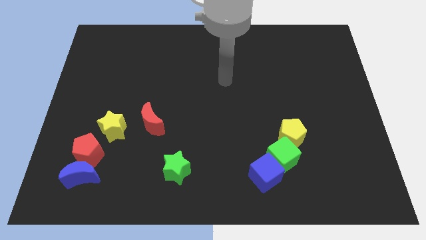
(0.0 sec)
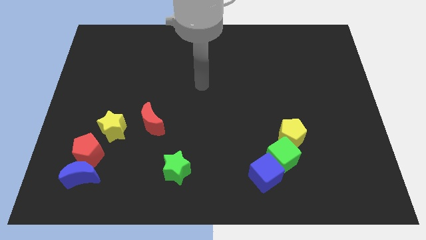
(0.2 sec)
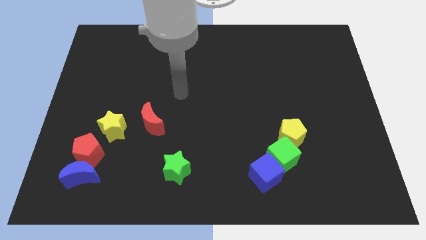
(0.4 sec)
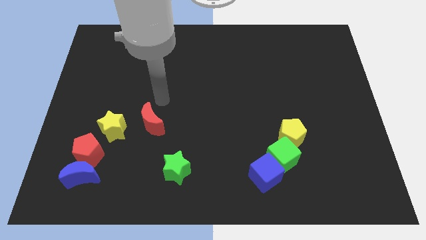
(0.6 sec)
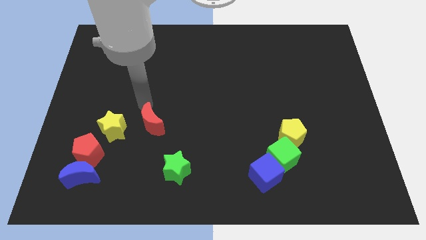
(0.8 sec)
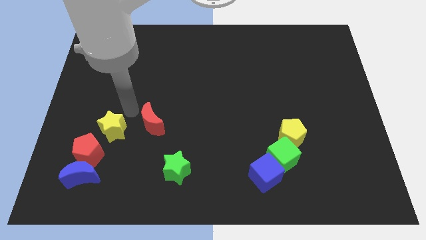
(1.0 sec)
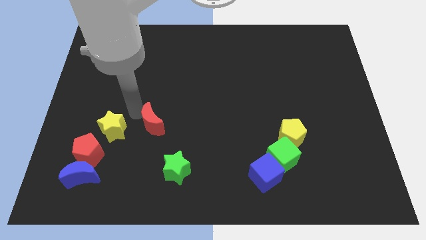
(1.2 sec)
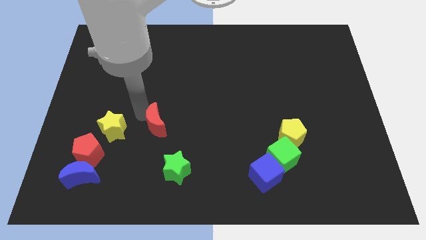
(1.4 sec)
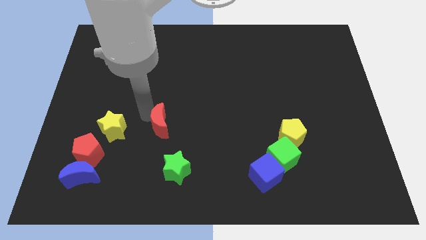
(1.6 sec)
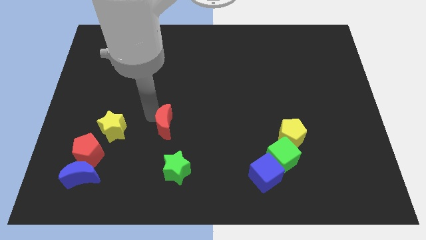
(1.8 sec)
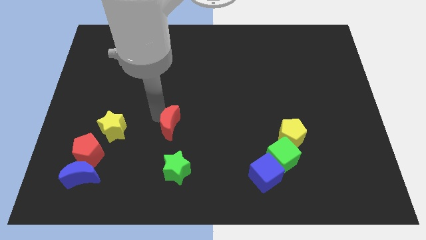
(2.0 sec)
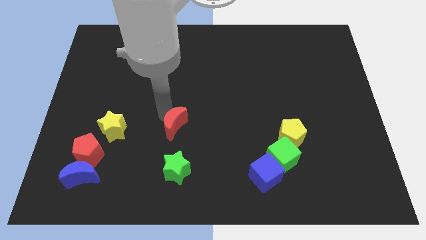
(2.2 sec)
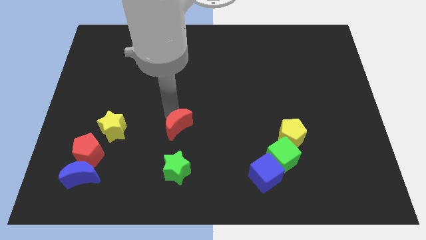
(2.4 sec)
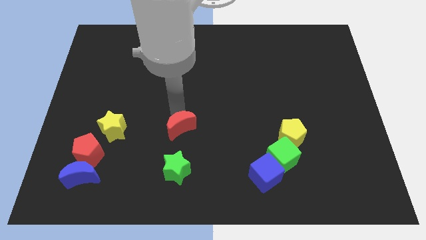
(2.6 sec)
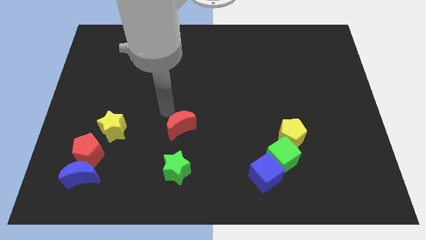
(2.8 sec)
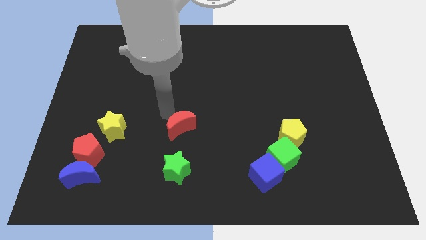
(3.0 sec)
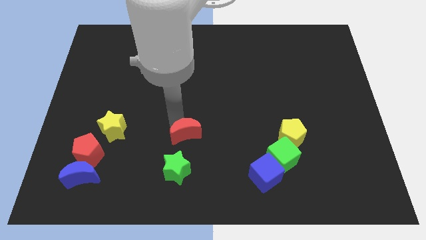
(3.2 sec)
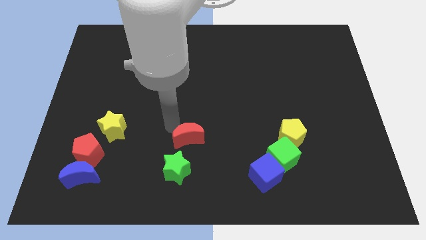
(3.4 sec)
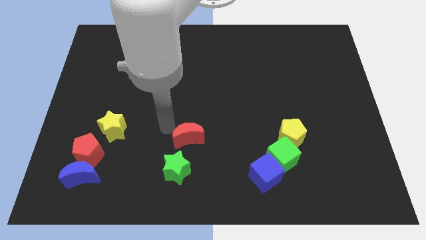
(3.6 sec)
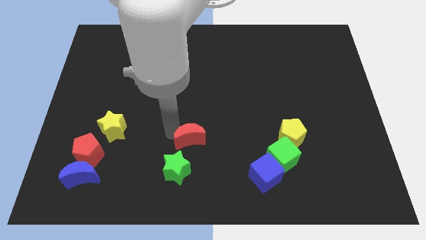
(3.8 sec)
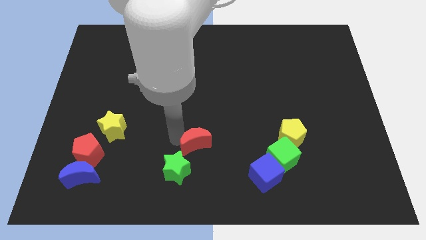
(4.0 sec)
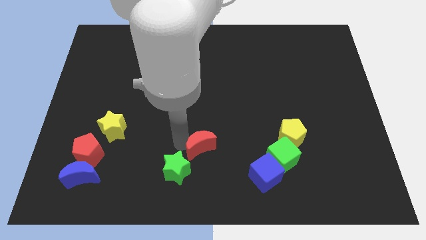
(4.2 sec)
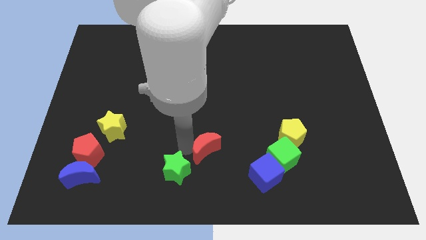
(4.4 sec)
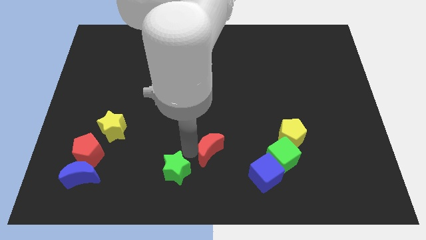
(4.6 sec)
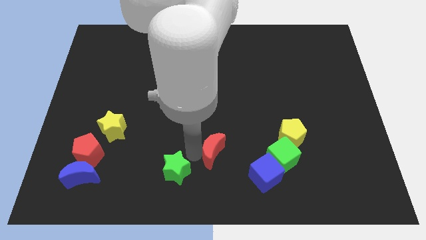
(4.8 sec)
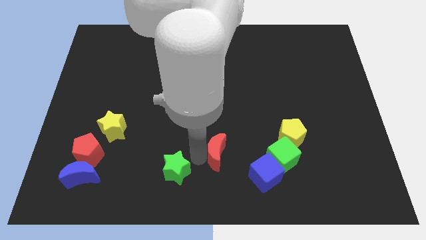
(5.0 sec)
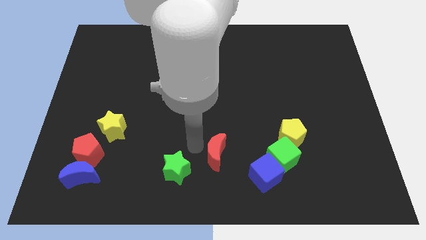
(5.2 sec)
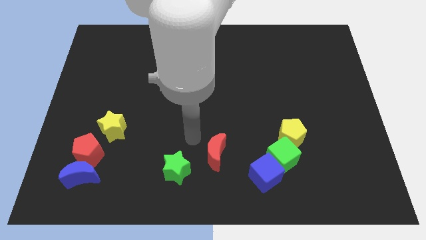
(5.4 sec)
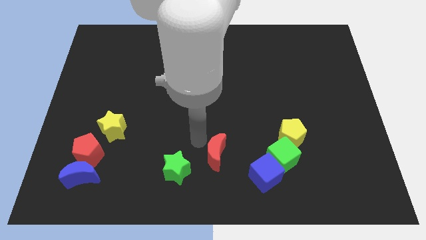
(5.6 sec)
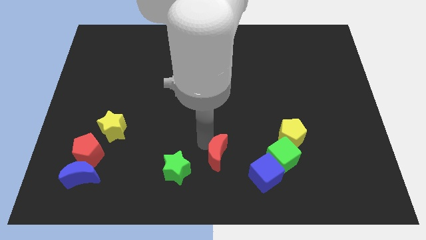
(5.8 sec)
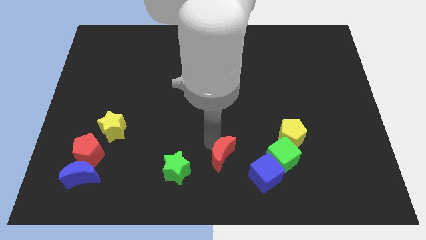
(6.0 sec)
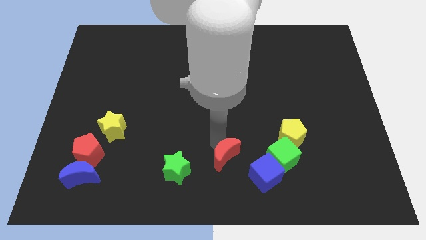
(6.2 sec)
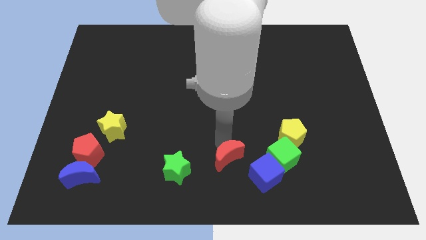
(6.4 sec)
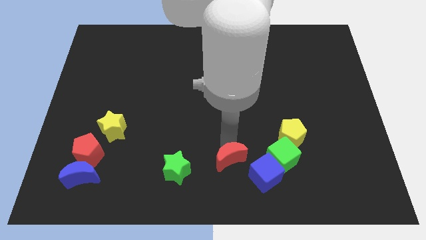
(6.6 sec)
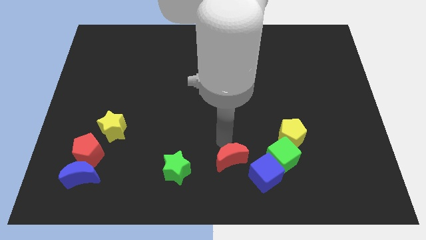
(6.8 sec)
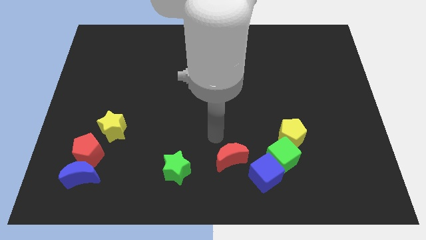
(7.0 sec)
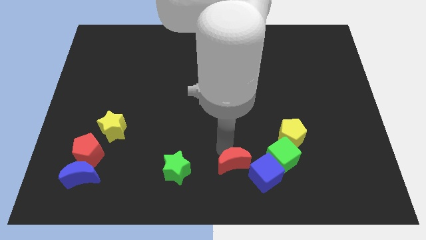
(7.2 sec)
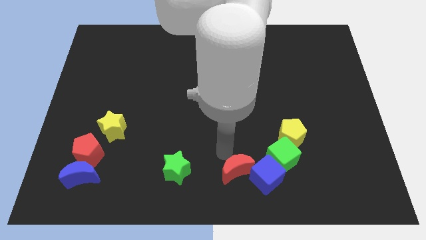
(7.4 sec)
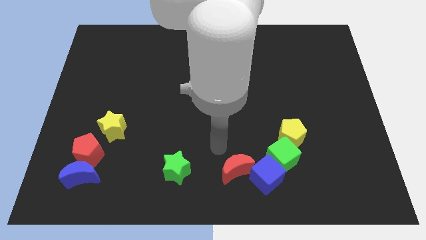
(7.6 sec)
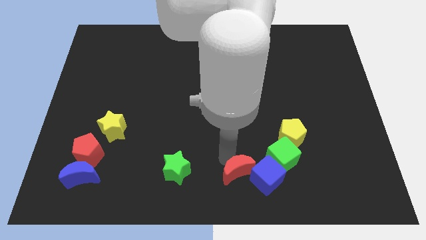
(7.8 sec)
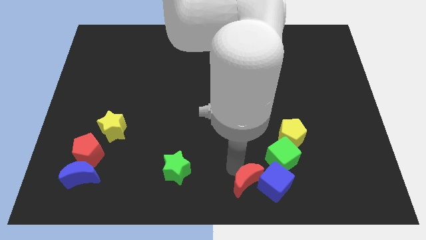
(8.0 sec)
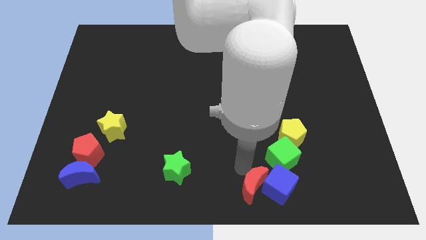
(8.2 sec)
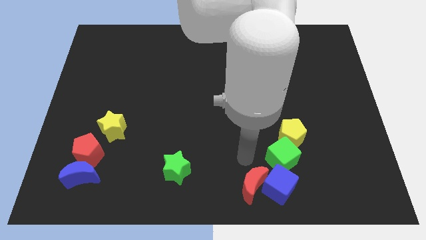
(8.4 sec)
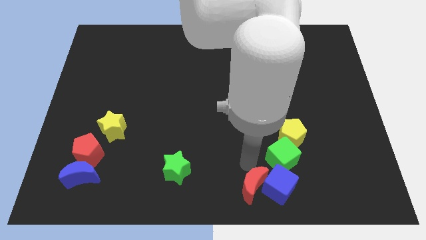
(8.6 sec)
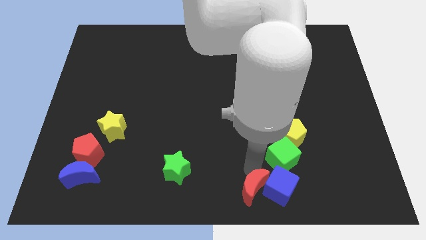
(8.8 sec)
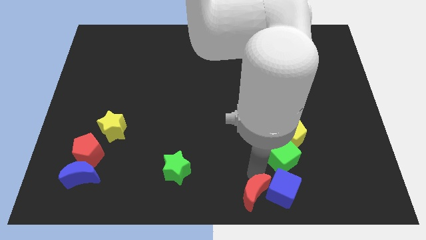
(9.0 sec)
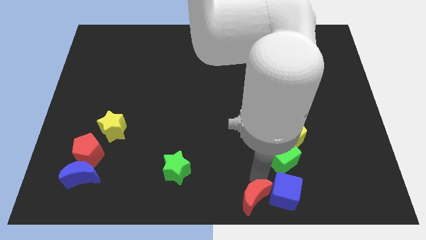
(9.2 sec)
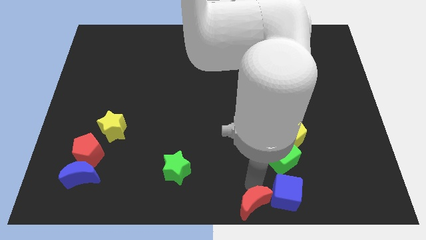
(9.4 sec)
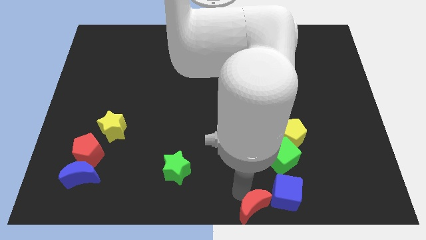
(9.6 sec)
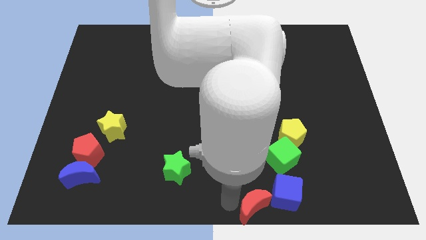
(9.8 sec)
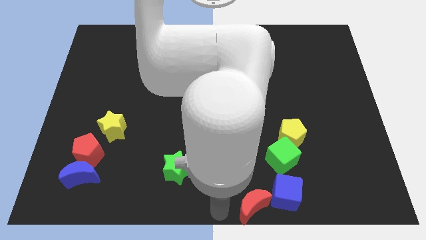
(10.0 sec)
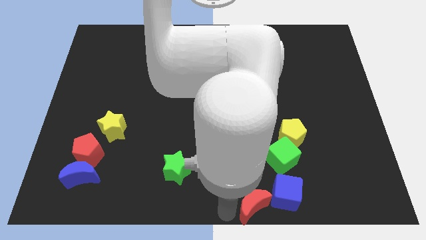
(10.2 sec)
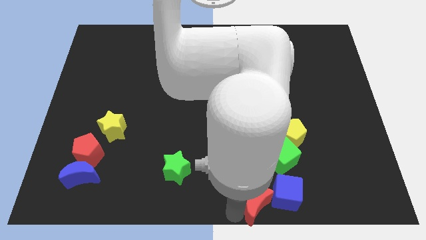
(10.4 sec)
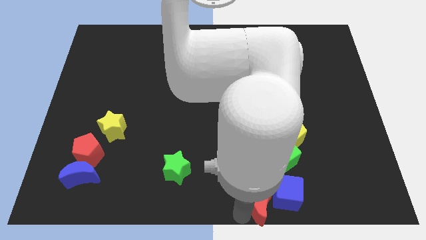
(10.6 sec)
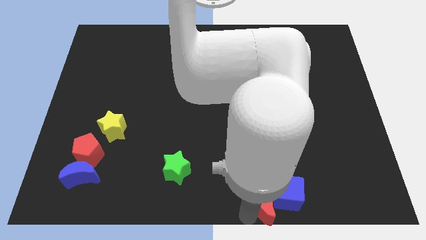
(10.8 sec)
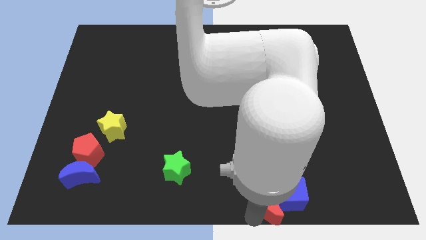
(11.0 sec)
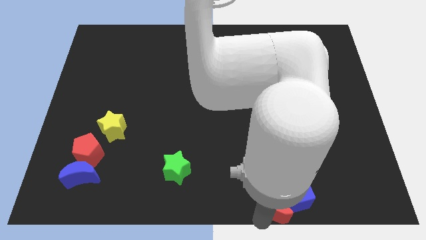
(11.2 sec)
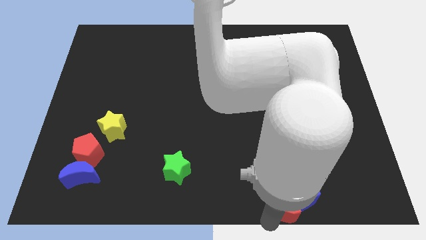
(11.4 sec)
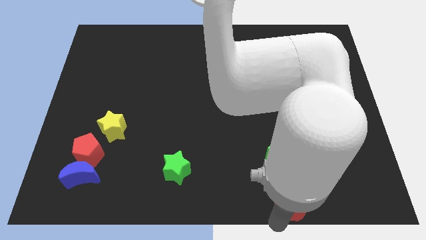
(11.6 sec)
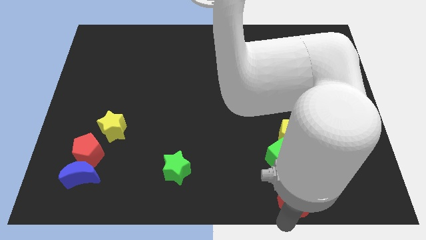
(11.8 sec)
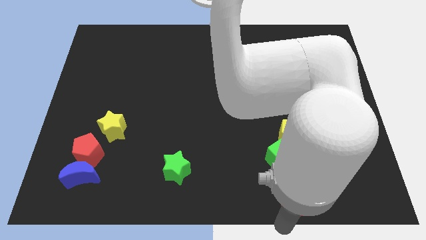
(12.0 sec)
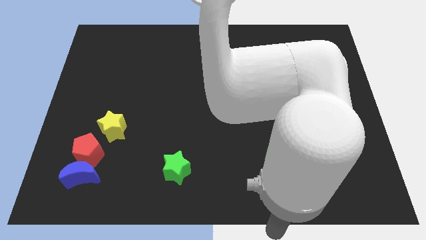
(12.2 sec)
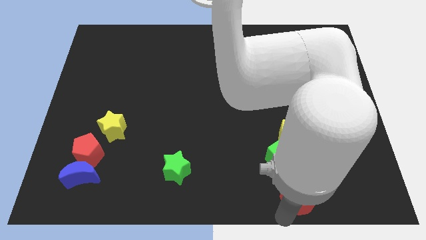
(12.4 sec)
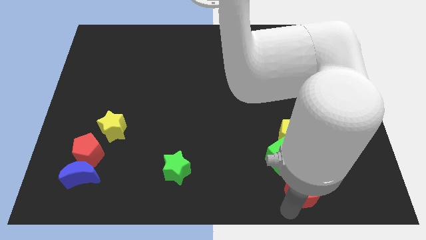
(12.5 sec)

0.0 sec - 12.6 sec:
put the red moon to the bottom right side of the green cube

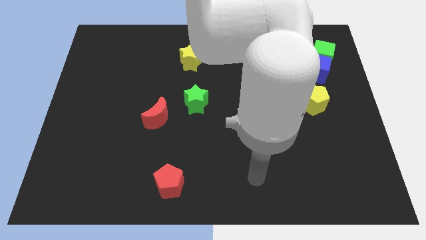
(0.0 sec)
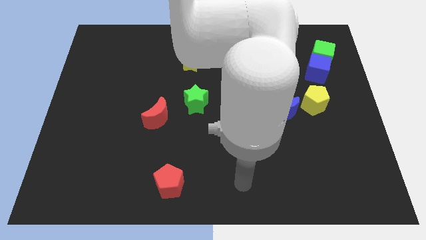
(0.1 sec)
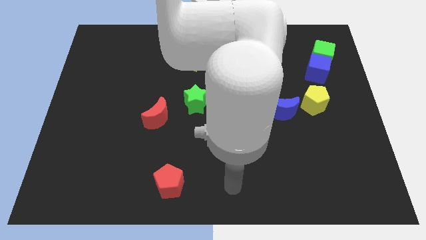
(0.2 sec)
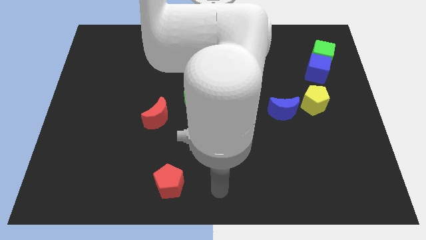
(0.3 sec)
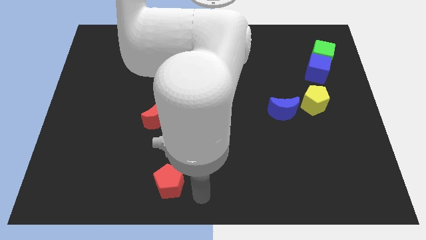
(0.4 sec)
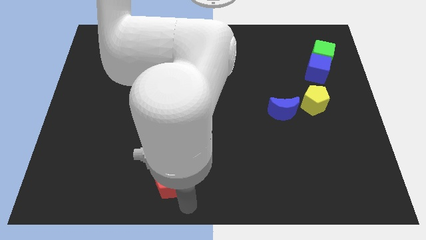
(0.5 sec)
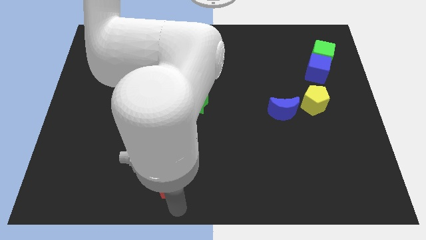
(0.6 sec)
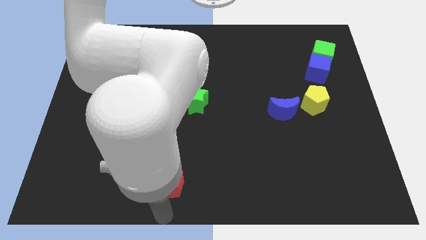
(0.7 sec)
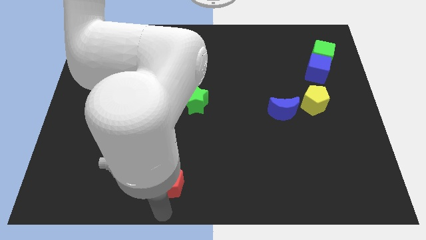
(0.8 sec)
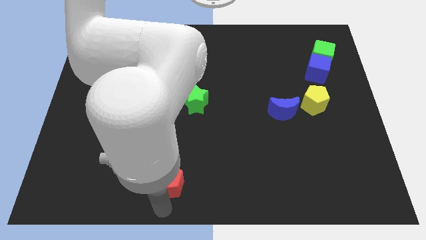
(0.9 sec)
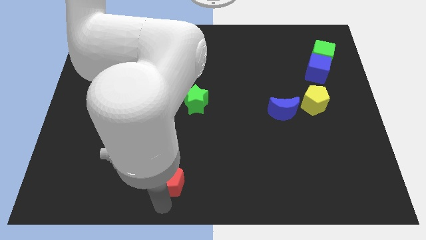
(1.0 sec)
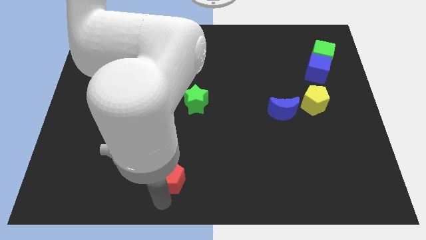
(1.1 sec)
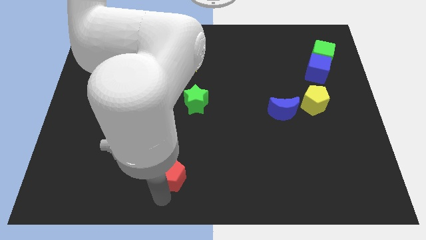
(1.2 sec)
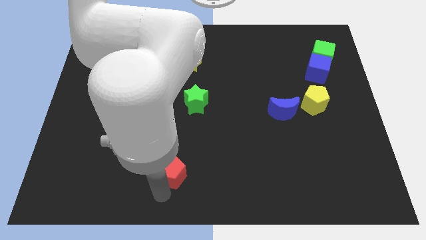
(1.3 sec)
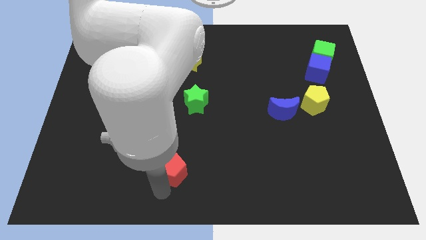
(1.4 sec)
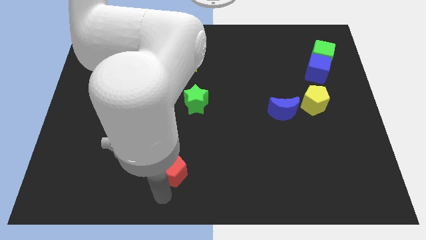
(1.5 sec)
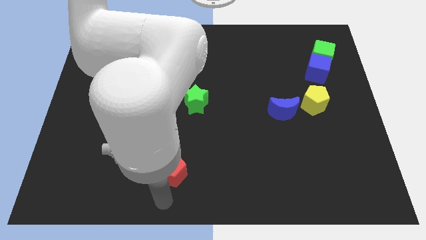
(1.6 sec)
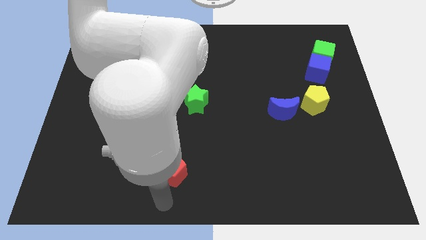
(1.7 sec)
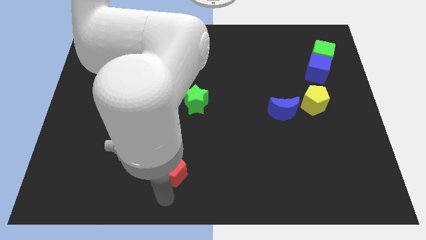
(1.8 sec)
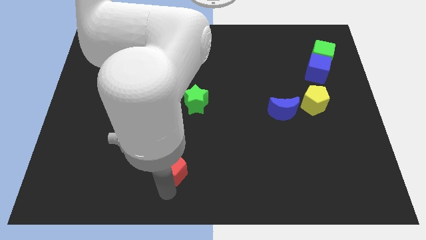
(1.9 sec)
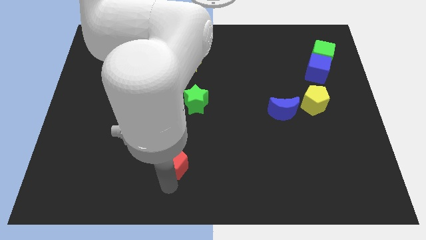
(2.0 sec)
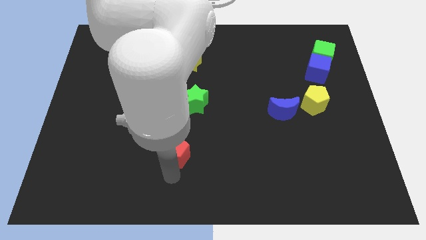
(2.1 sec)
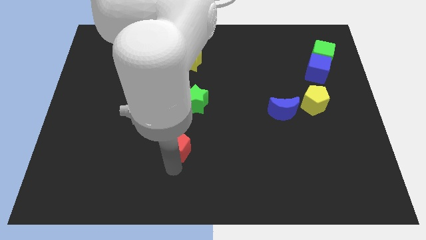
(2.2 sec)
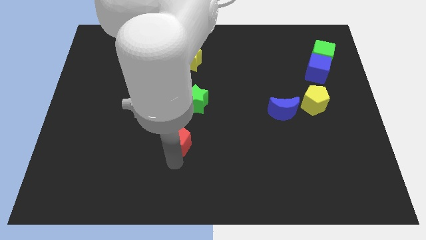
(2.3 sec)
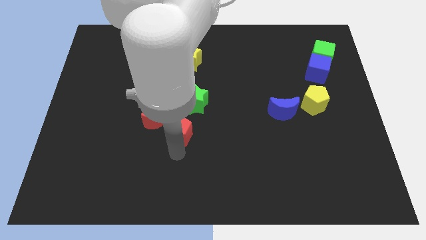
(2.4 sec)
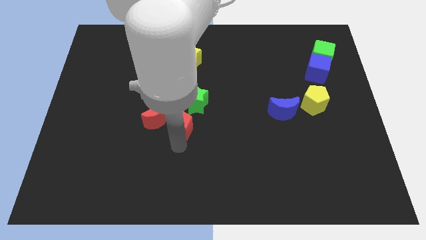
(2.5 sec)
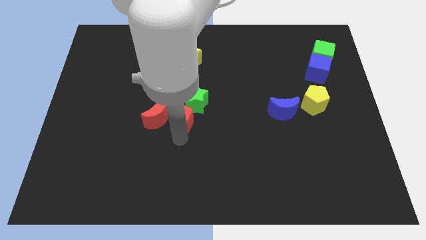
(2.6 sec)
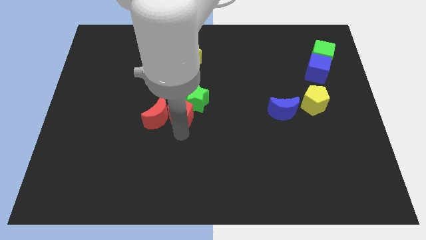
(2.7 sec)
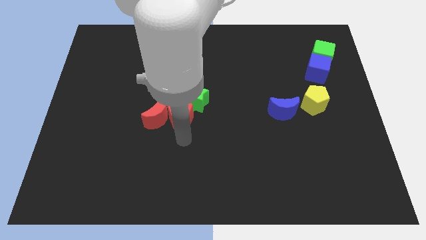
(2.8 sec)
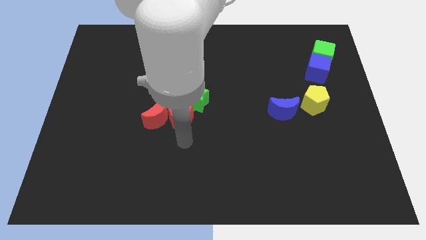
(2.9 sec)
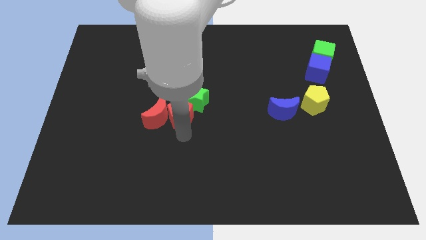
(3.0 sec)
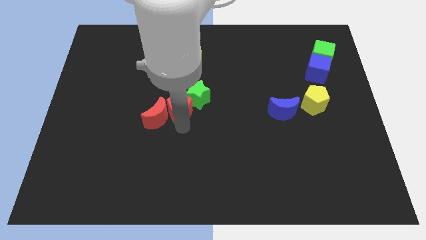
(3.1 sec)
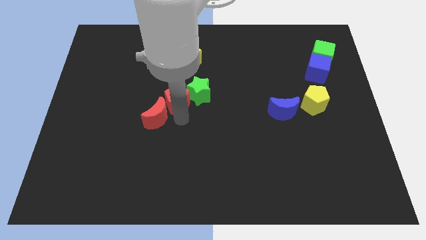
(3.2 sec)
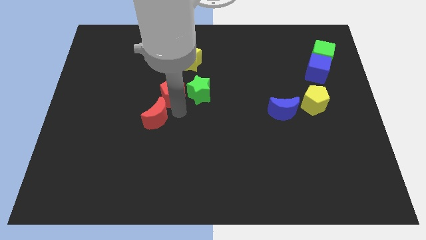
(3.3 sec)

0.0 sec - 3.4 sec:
slide the red pentagon to the top left side of the green star
